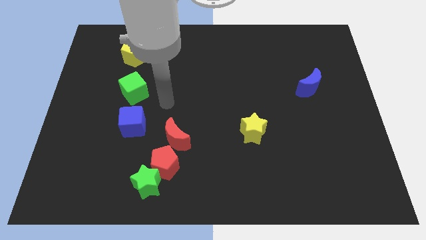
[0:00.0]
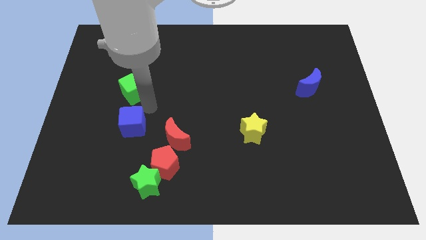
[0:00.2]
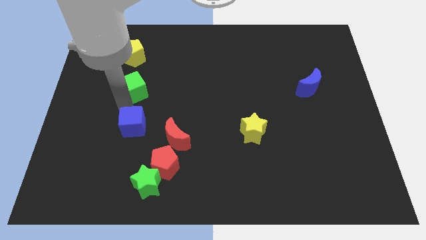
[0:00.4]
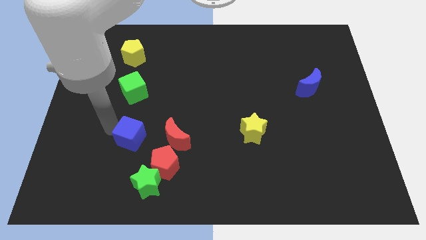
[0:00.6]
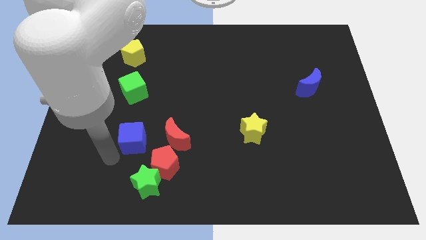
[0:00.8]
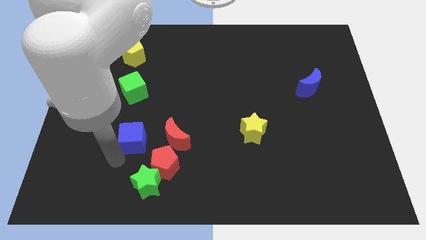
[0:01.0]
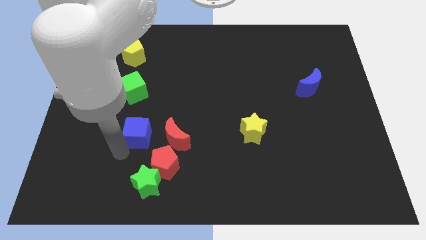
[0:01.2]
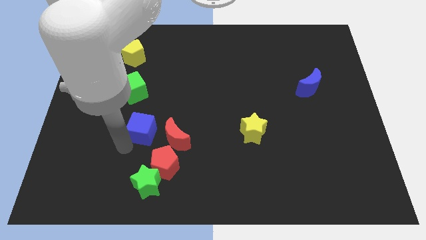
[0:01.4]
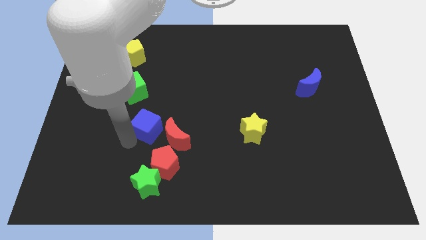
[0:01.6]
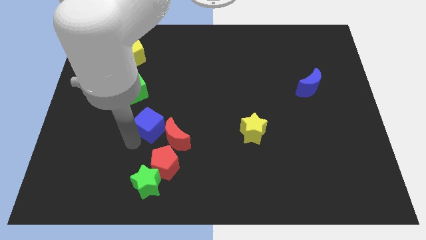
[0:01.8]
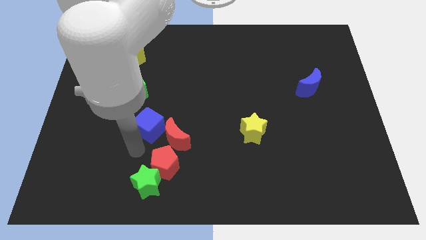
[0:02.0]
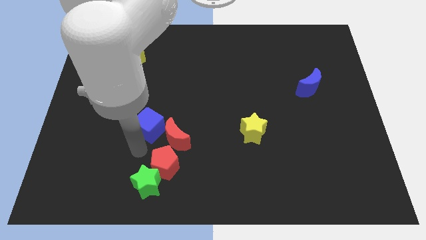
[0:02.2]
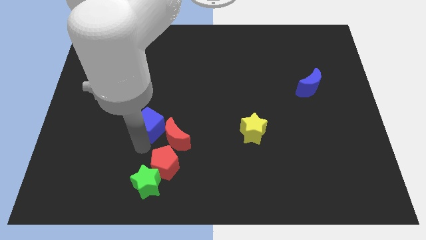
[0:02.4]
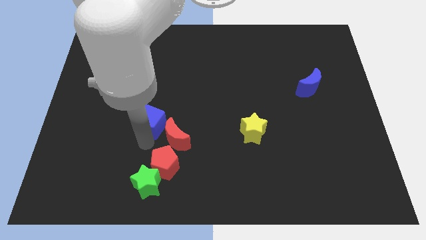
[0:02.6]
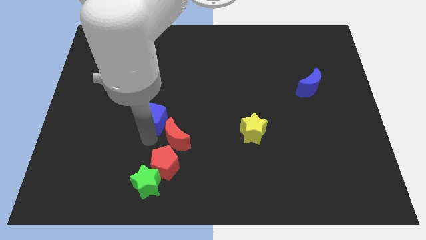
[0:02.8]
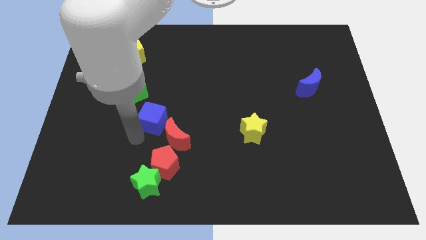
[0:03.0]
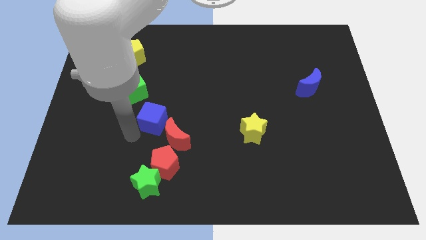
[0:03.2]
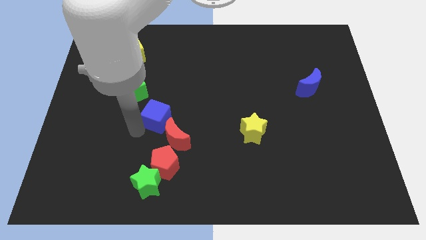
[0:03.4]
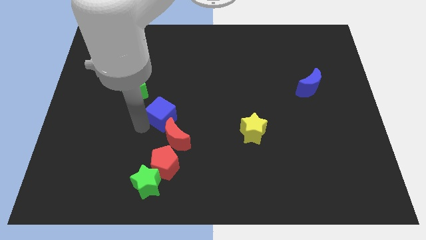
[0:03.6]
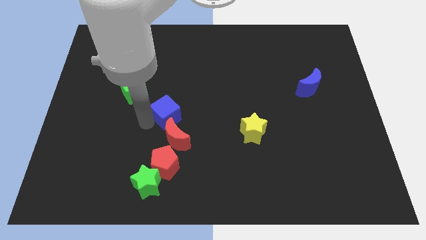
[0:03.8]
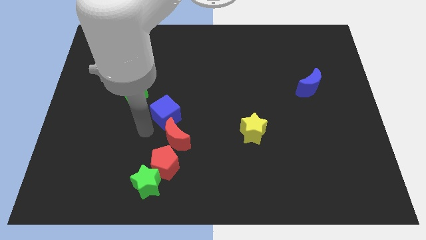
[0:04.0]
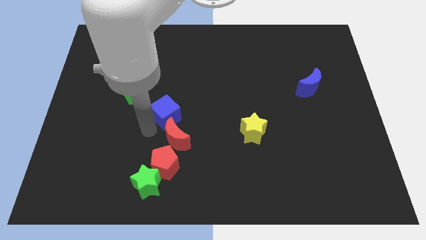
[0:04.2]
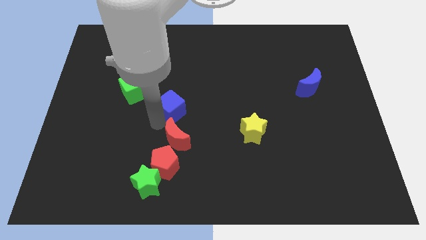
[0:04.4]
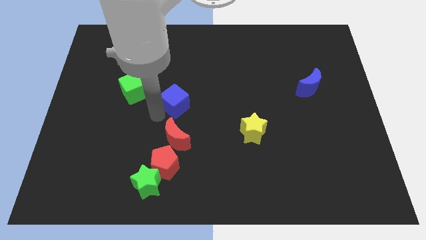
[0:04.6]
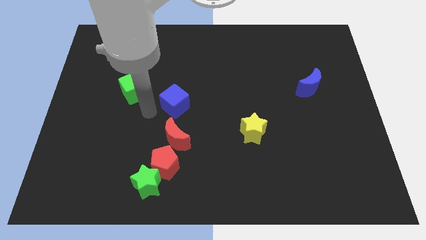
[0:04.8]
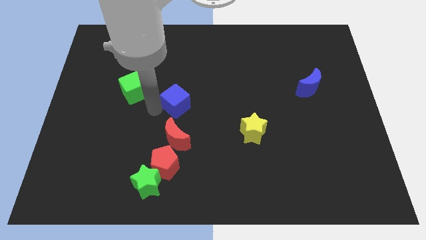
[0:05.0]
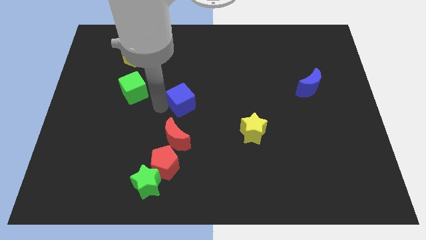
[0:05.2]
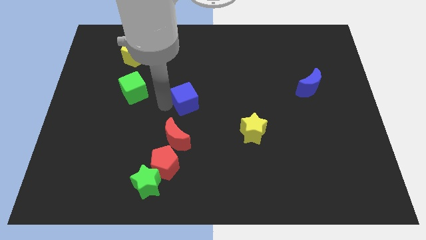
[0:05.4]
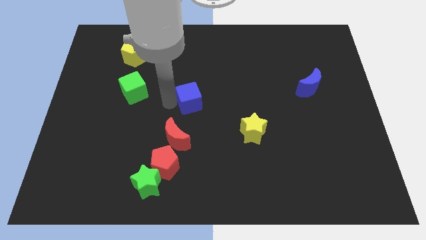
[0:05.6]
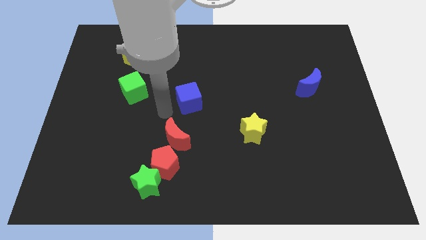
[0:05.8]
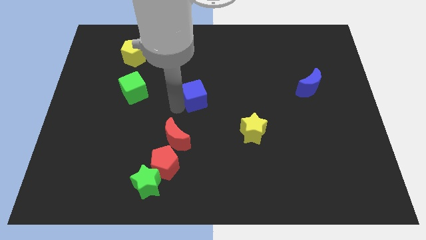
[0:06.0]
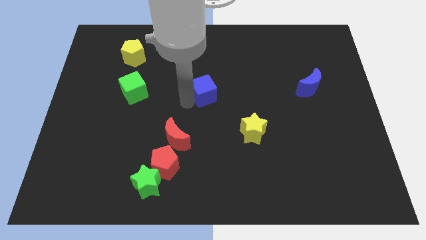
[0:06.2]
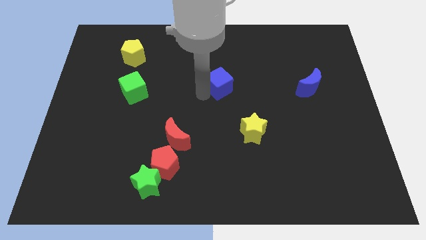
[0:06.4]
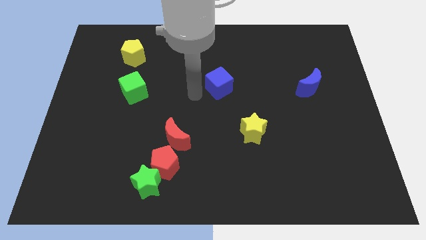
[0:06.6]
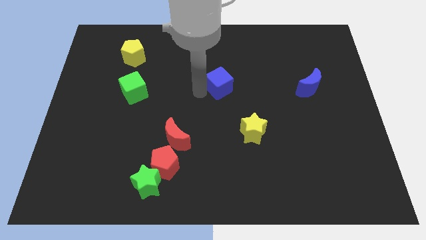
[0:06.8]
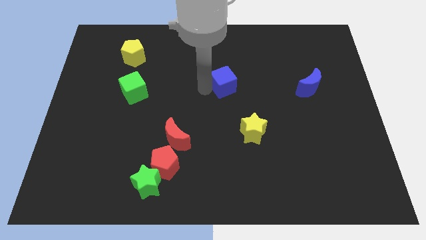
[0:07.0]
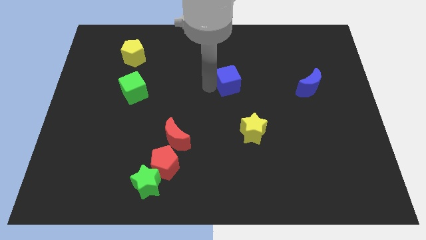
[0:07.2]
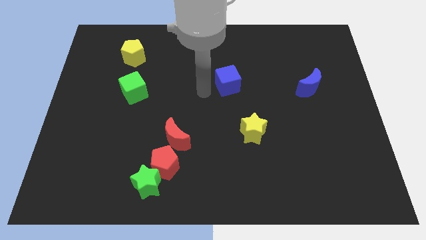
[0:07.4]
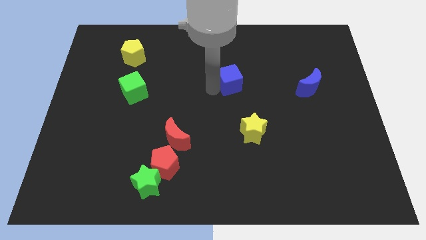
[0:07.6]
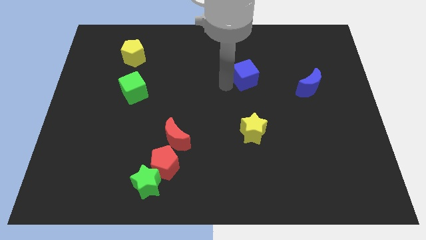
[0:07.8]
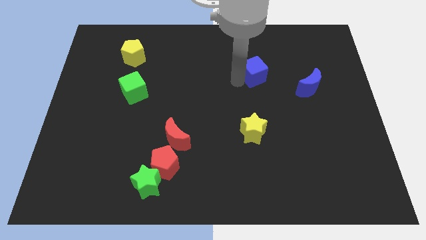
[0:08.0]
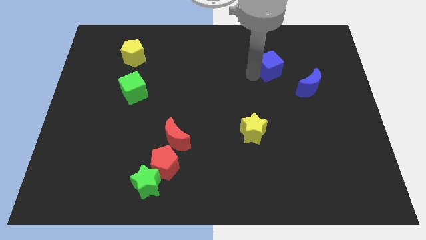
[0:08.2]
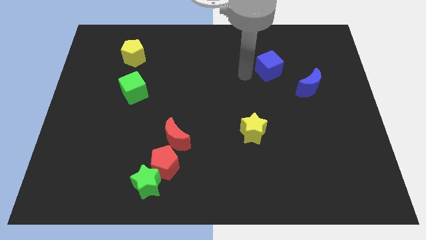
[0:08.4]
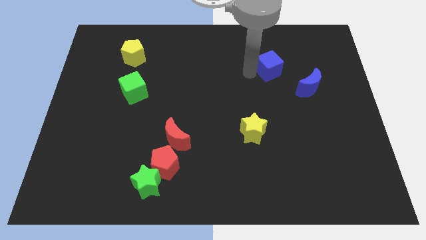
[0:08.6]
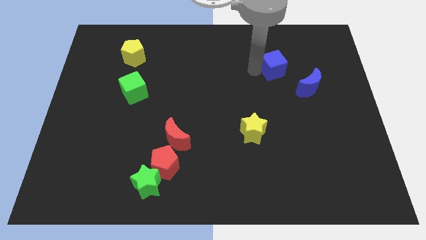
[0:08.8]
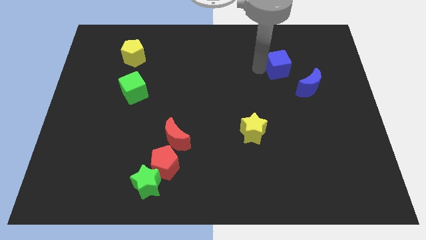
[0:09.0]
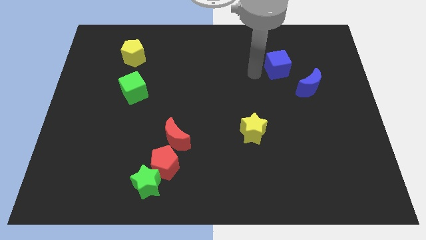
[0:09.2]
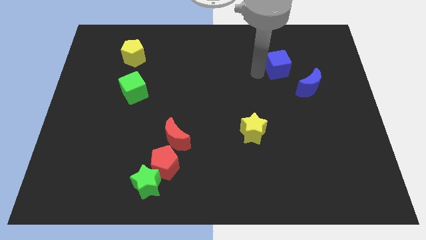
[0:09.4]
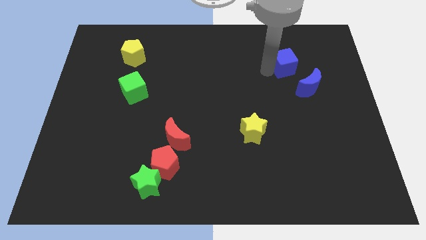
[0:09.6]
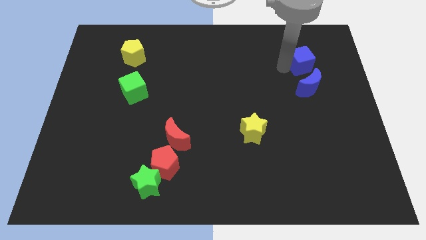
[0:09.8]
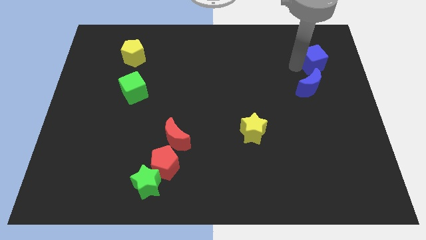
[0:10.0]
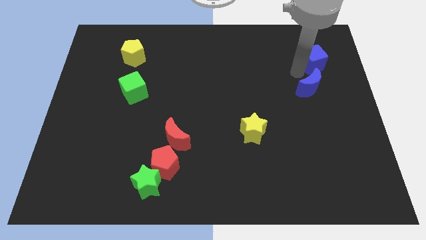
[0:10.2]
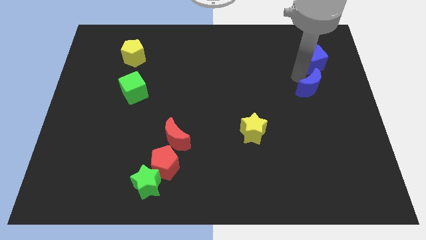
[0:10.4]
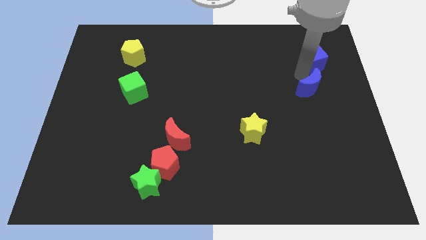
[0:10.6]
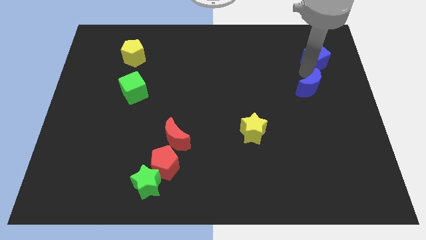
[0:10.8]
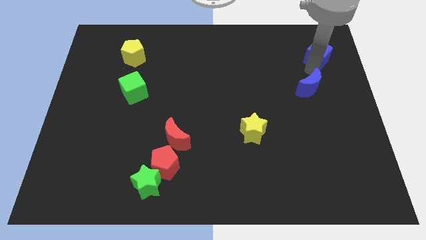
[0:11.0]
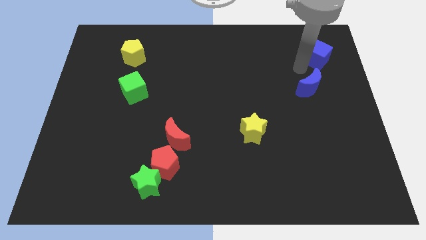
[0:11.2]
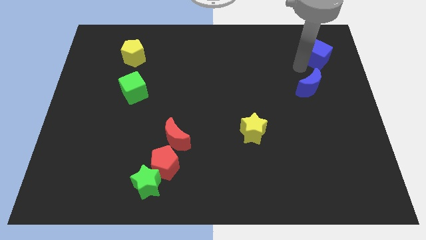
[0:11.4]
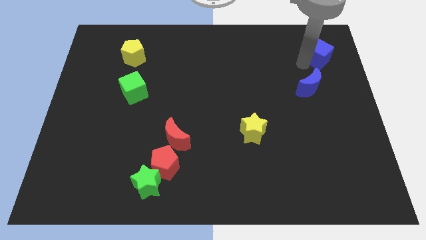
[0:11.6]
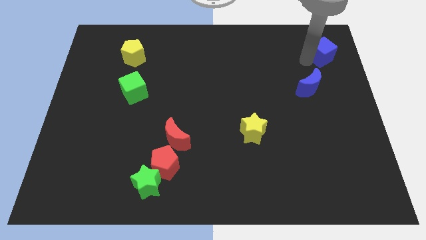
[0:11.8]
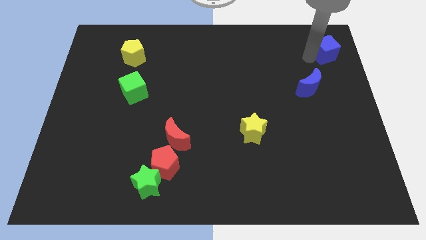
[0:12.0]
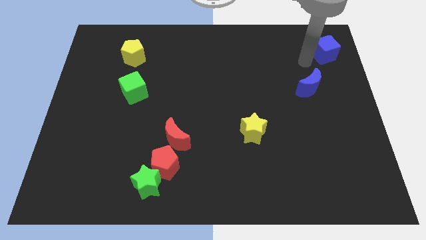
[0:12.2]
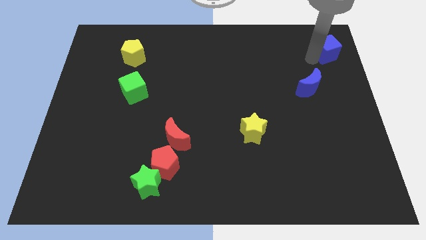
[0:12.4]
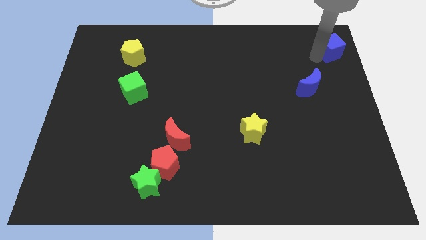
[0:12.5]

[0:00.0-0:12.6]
move the blue cube to the top right
